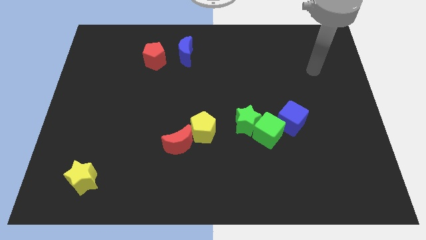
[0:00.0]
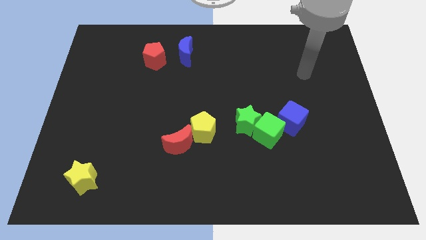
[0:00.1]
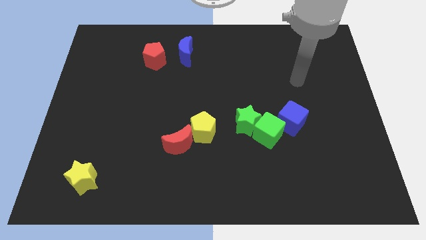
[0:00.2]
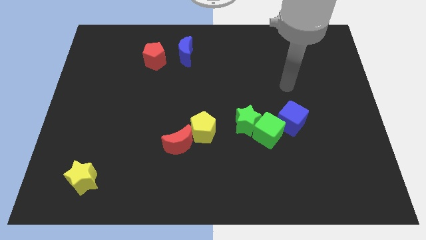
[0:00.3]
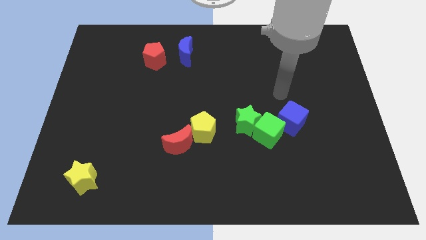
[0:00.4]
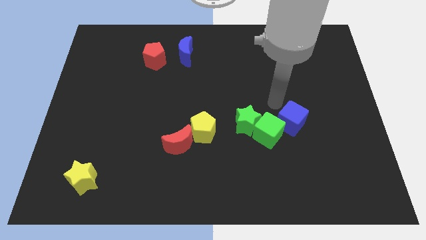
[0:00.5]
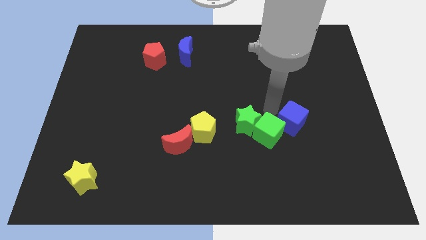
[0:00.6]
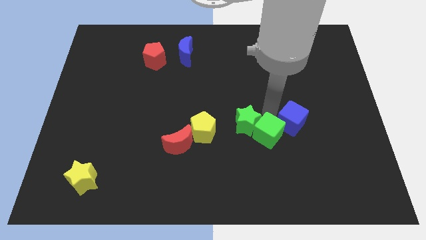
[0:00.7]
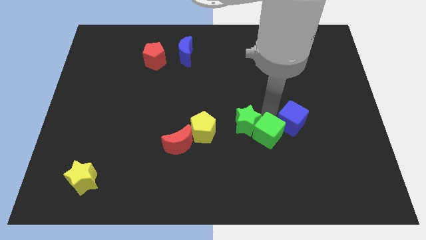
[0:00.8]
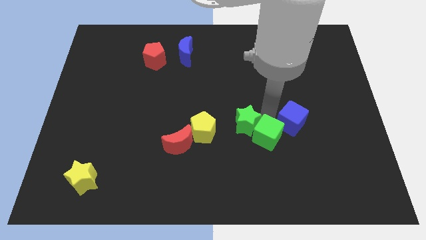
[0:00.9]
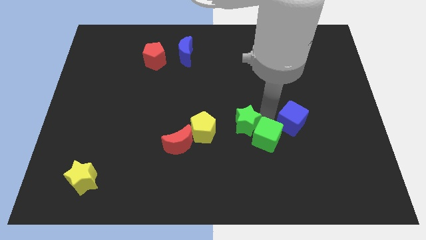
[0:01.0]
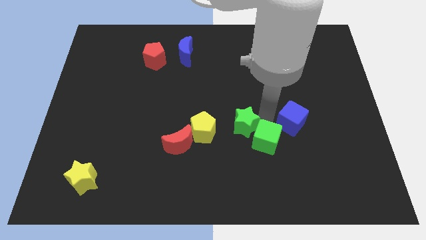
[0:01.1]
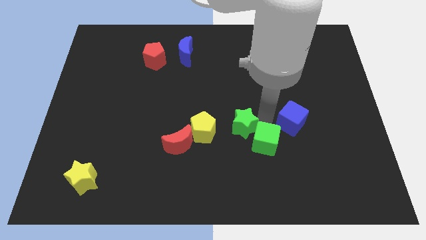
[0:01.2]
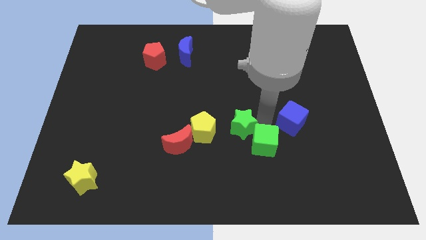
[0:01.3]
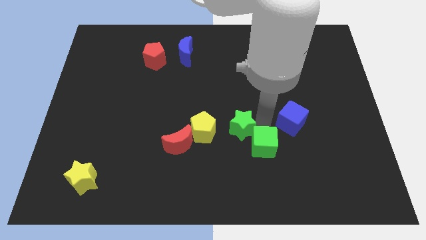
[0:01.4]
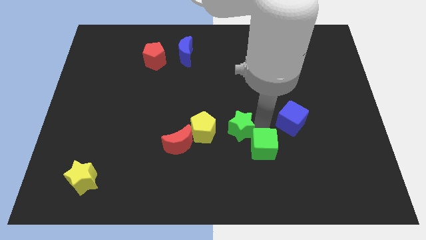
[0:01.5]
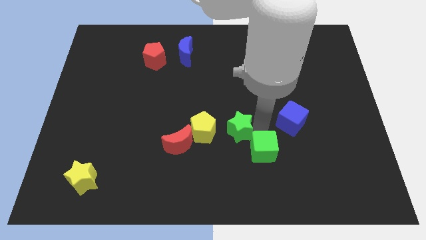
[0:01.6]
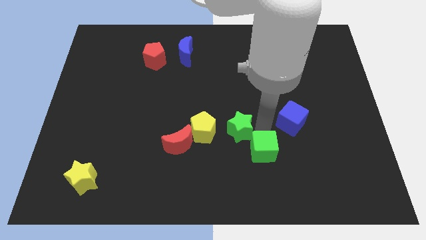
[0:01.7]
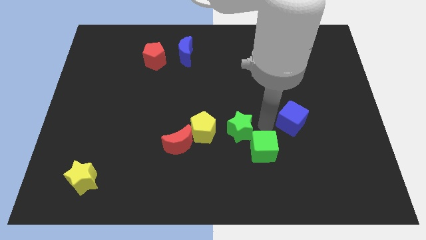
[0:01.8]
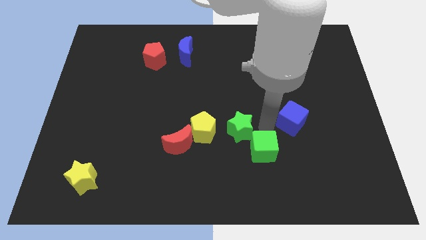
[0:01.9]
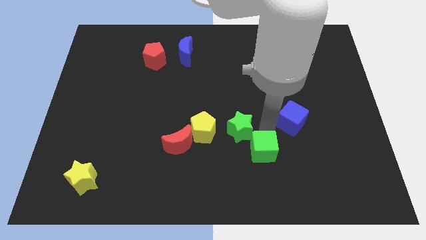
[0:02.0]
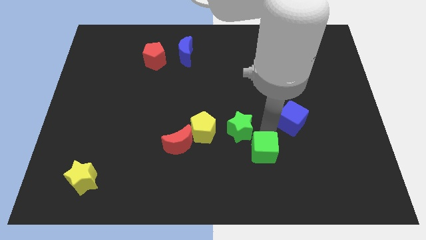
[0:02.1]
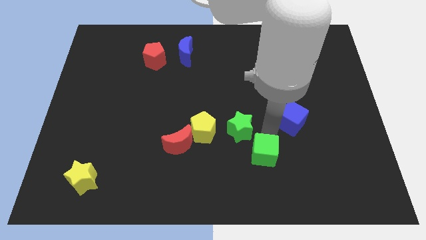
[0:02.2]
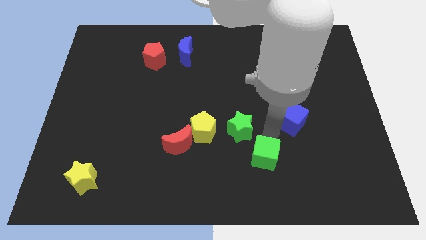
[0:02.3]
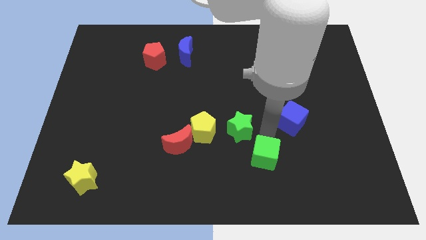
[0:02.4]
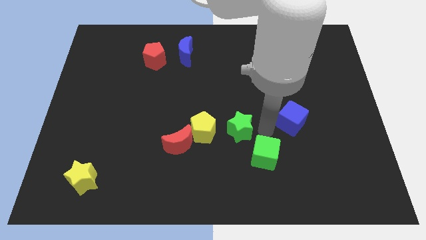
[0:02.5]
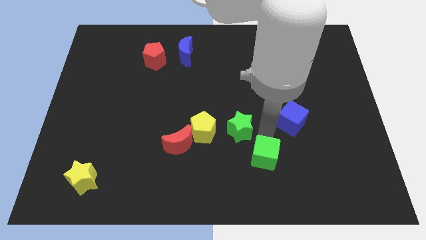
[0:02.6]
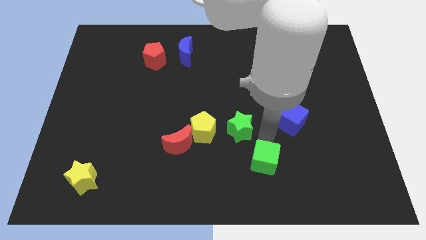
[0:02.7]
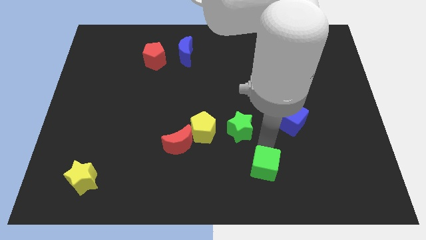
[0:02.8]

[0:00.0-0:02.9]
separate the green cube from the green star and blue cube

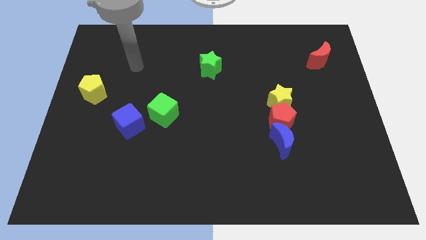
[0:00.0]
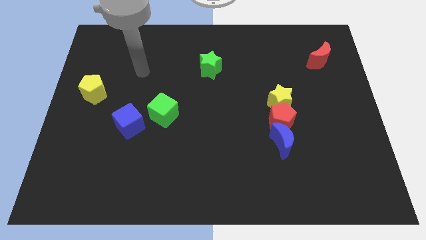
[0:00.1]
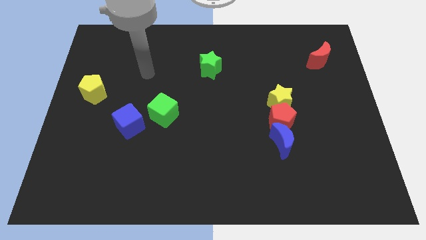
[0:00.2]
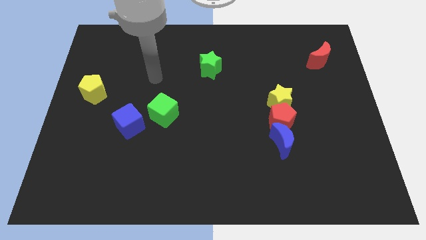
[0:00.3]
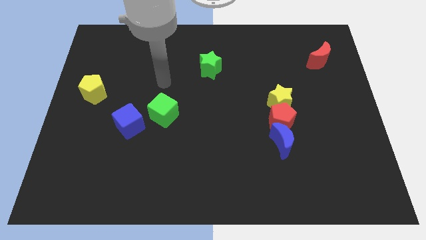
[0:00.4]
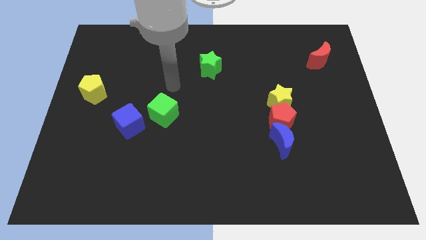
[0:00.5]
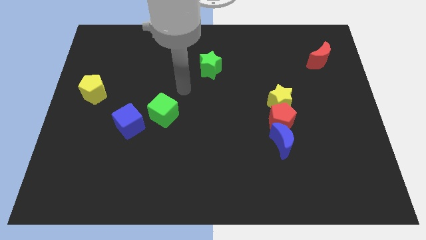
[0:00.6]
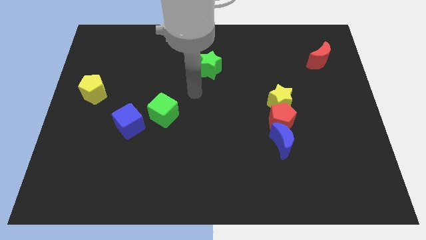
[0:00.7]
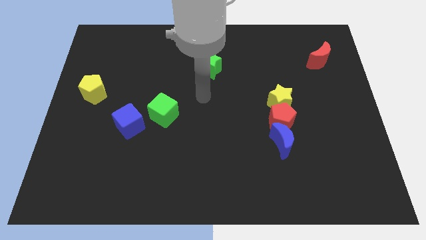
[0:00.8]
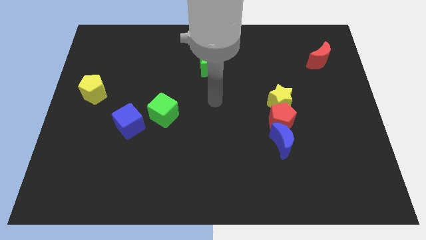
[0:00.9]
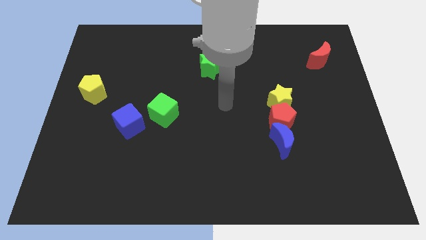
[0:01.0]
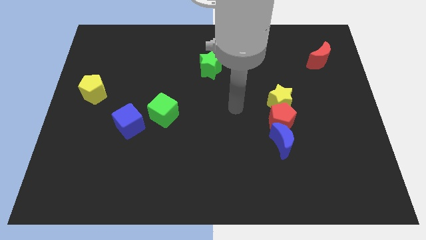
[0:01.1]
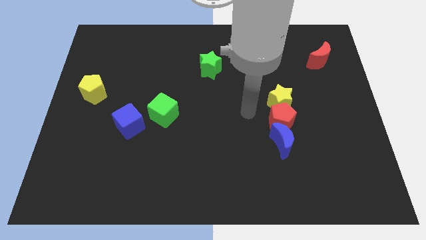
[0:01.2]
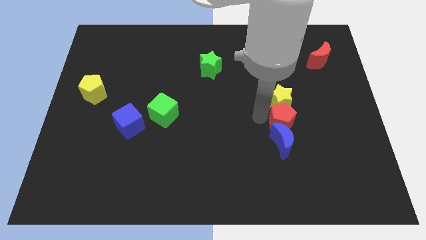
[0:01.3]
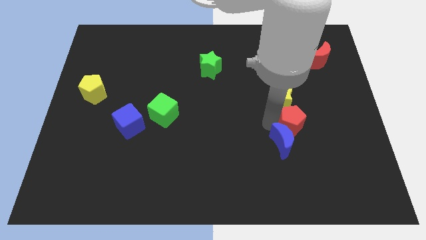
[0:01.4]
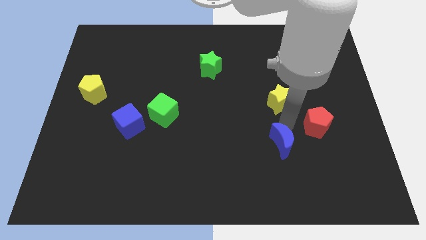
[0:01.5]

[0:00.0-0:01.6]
pull the yellow star apart from the red pentagon

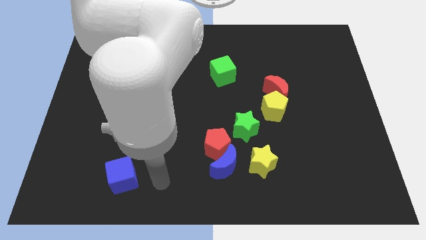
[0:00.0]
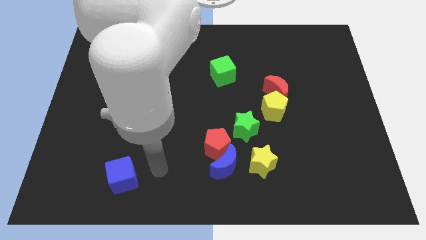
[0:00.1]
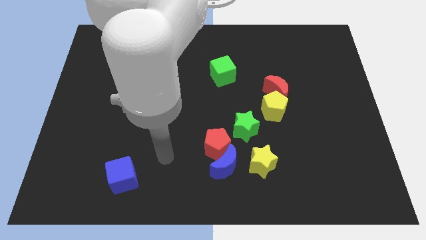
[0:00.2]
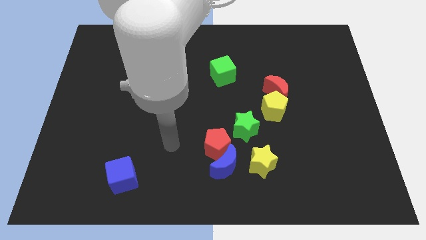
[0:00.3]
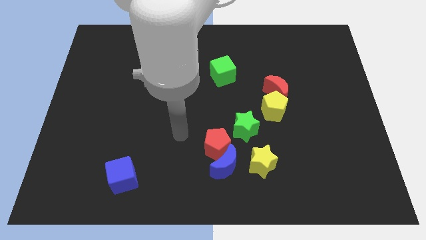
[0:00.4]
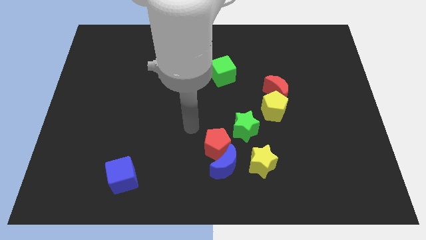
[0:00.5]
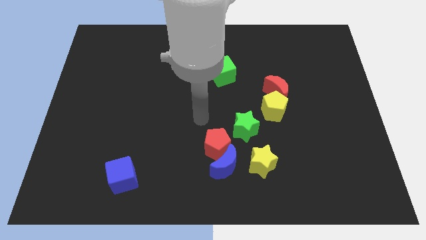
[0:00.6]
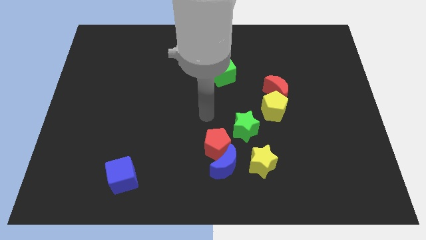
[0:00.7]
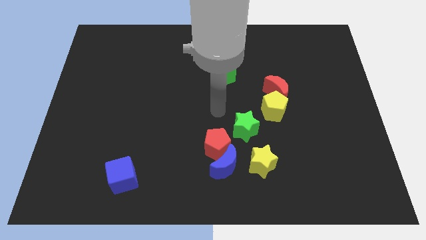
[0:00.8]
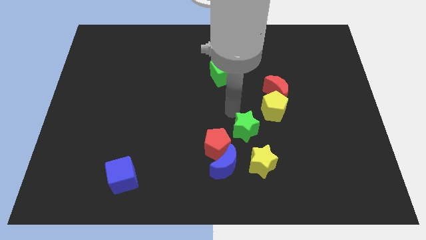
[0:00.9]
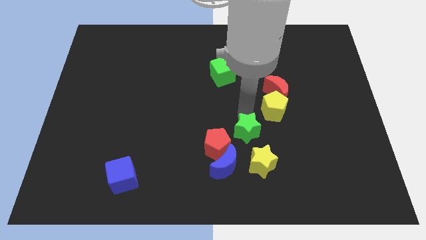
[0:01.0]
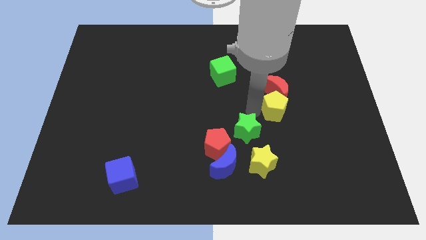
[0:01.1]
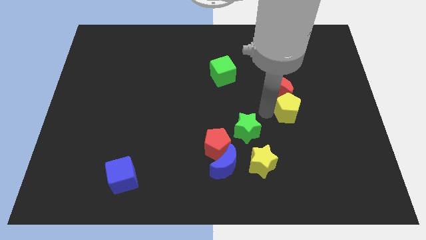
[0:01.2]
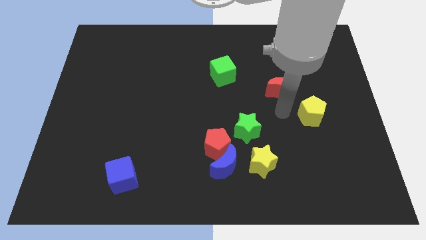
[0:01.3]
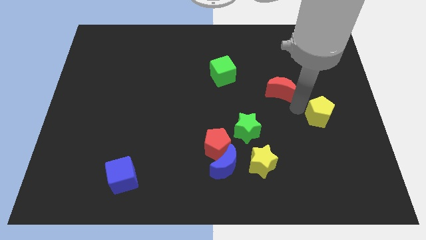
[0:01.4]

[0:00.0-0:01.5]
move the red moon away from the yellow pentagon

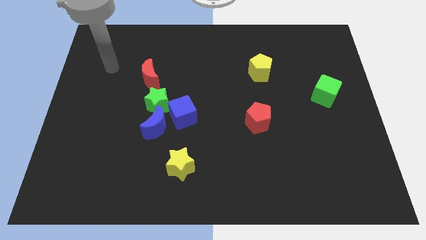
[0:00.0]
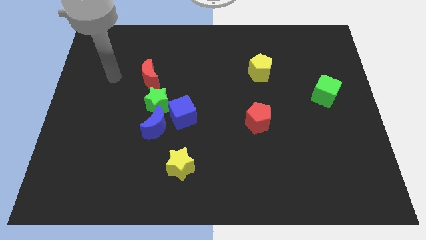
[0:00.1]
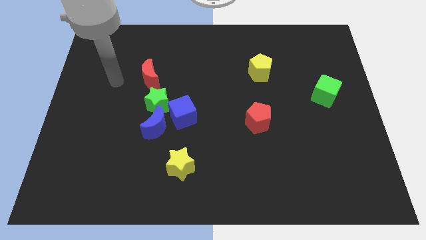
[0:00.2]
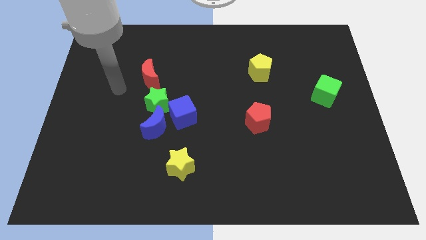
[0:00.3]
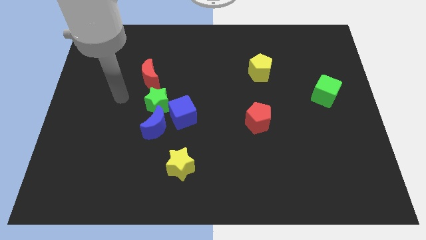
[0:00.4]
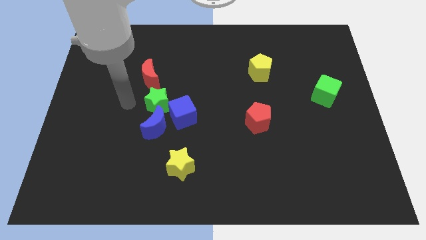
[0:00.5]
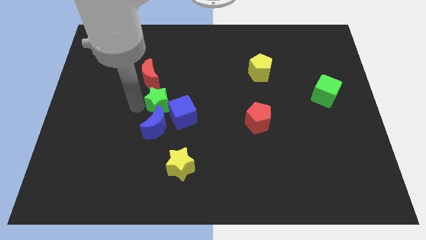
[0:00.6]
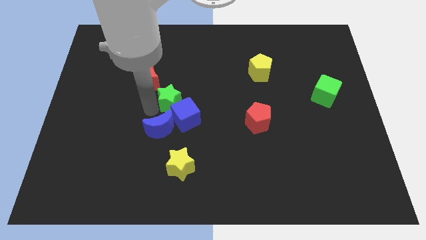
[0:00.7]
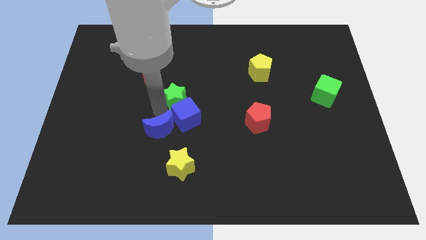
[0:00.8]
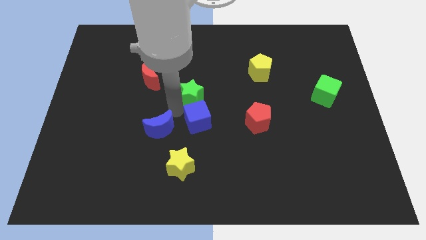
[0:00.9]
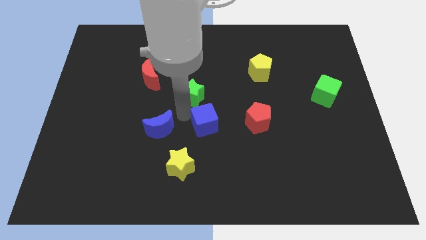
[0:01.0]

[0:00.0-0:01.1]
move the blue moon away from the green star and blue cube

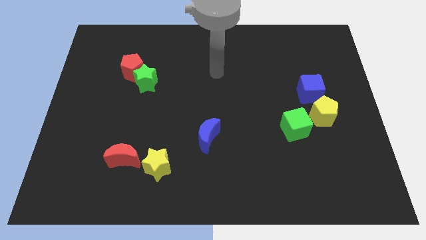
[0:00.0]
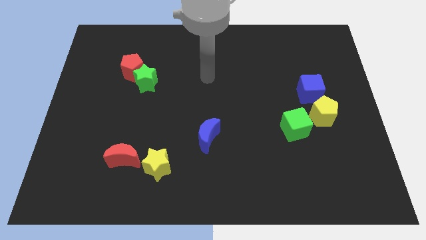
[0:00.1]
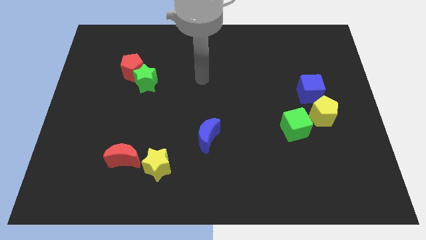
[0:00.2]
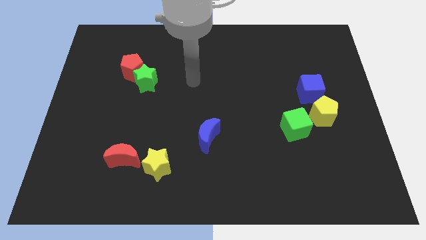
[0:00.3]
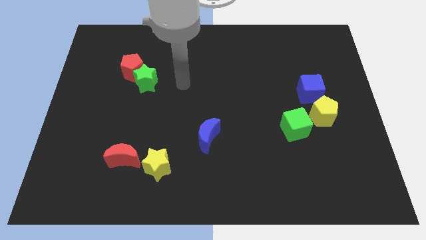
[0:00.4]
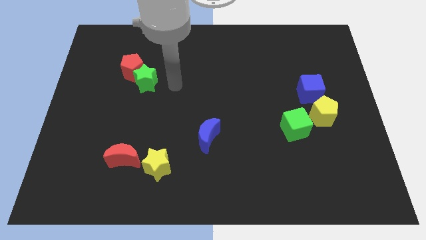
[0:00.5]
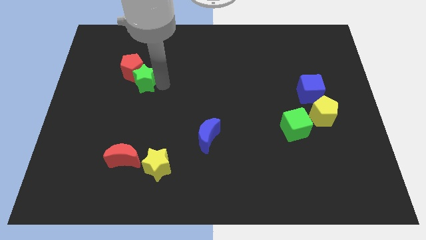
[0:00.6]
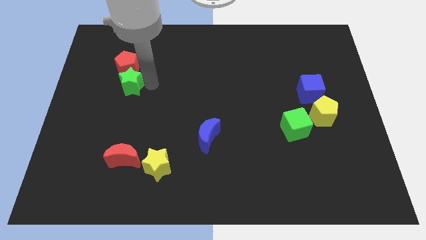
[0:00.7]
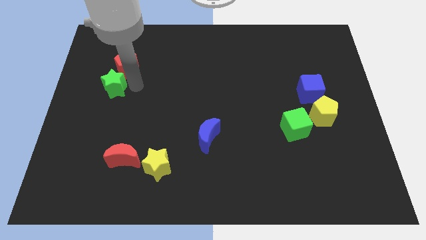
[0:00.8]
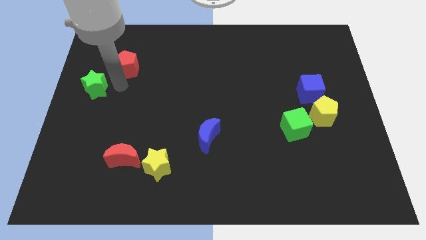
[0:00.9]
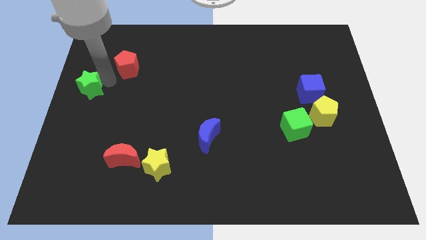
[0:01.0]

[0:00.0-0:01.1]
separate the red pentagon from the green star

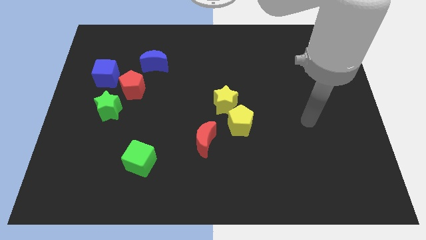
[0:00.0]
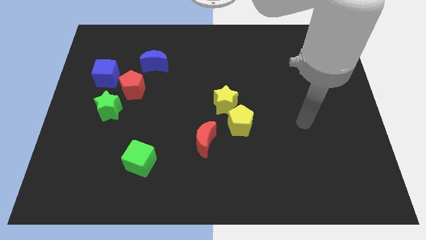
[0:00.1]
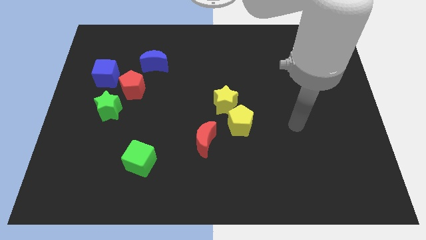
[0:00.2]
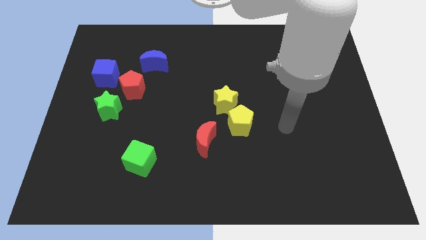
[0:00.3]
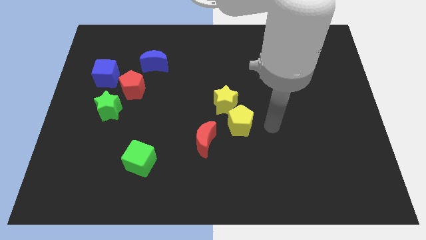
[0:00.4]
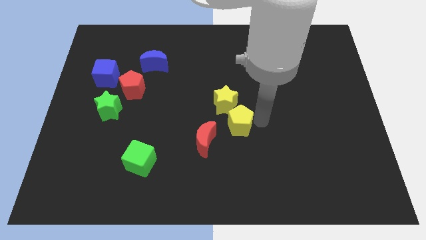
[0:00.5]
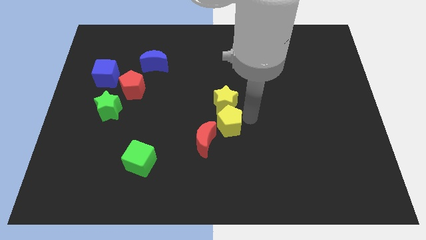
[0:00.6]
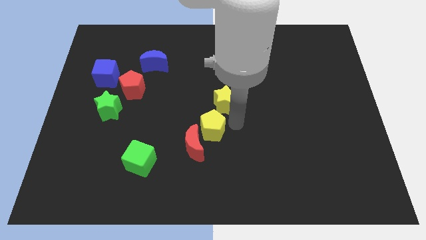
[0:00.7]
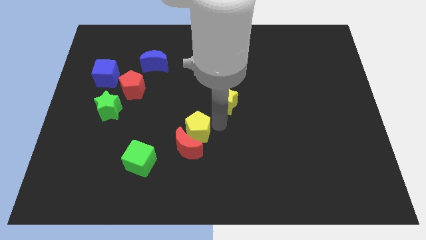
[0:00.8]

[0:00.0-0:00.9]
separate the yellow star from the yellow pentagon

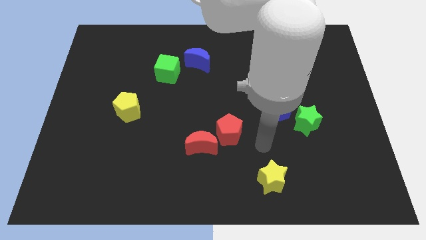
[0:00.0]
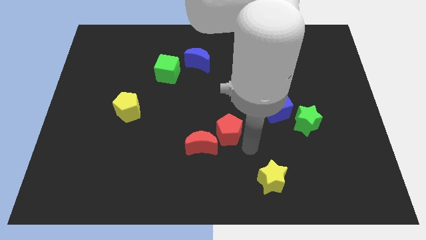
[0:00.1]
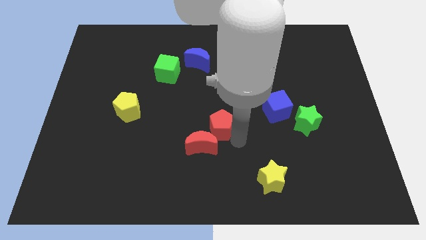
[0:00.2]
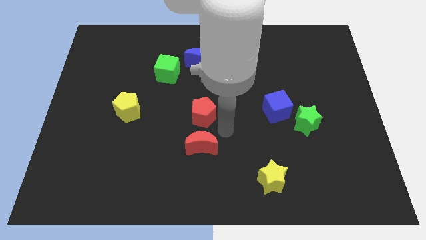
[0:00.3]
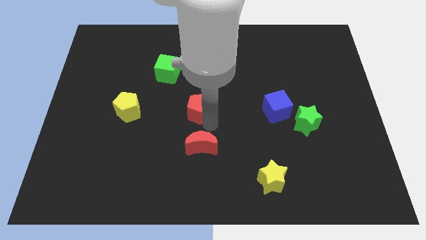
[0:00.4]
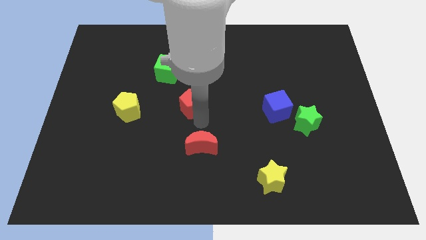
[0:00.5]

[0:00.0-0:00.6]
move the red moon away from the red pentagon
